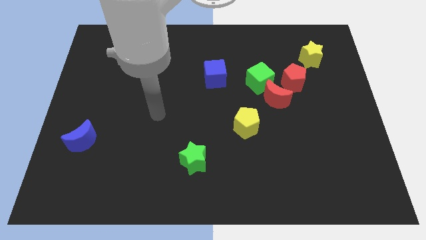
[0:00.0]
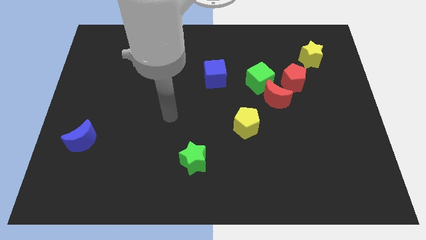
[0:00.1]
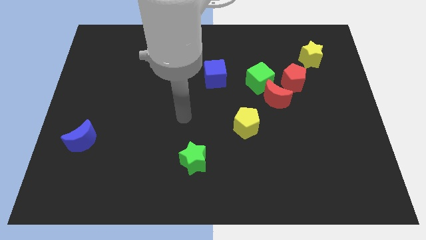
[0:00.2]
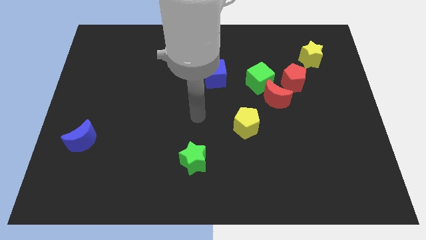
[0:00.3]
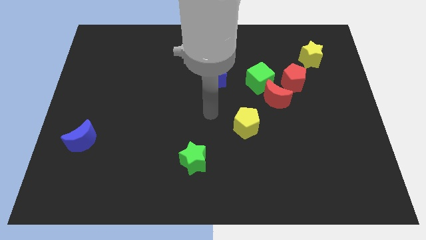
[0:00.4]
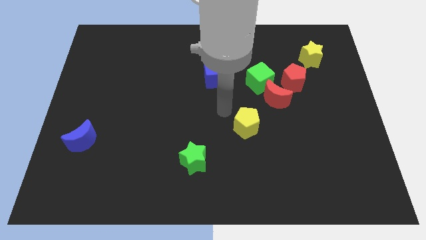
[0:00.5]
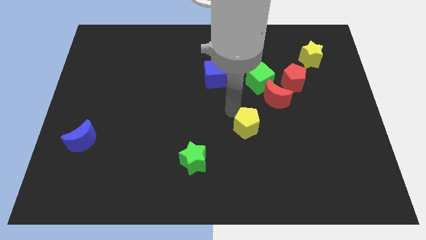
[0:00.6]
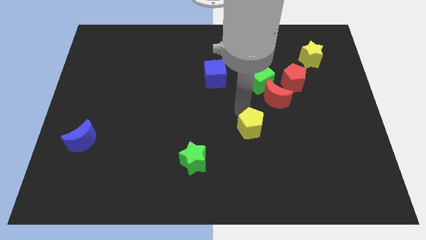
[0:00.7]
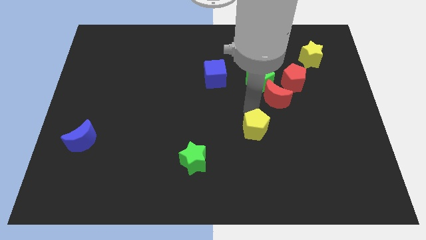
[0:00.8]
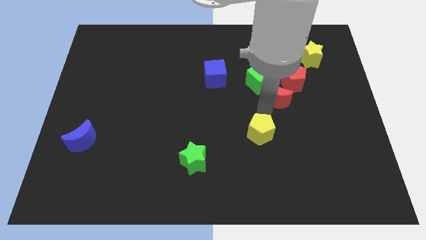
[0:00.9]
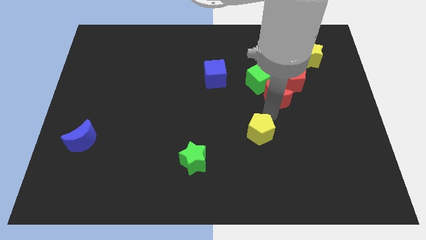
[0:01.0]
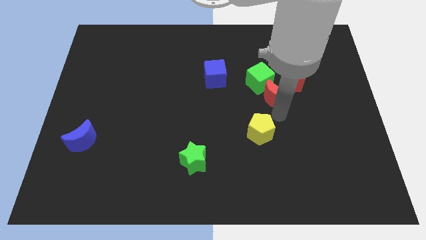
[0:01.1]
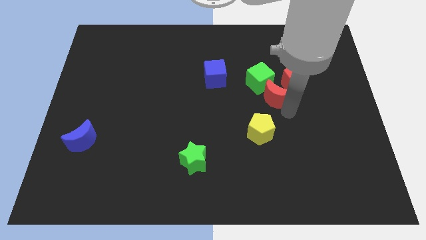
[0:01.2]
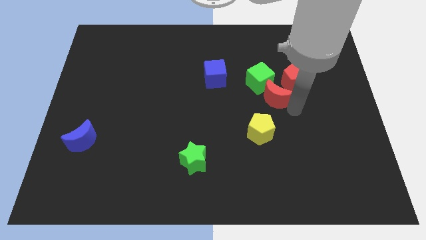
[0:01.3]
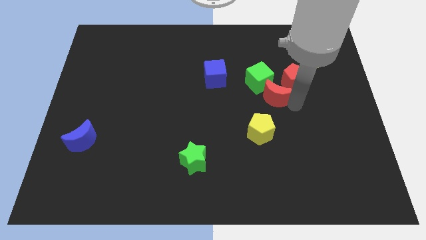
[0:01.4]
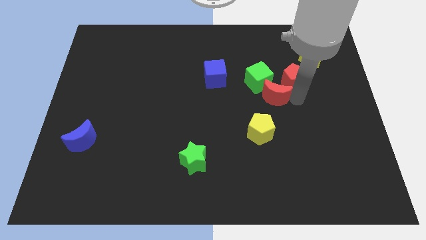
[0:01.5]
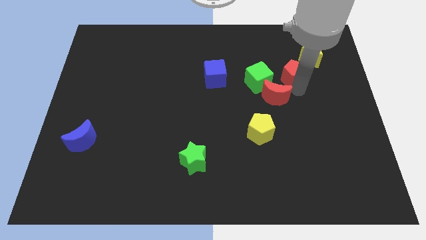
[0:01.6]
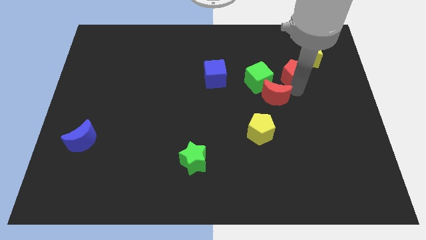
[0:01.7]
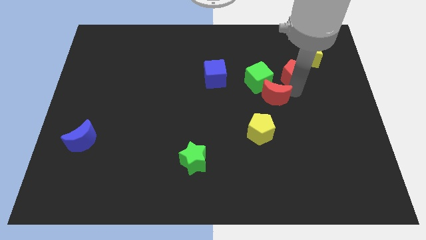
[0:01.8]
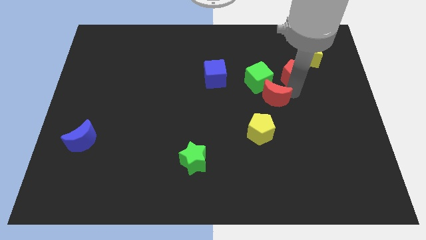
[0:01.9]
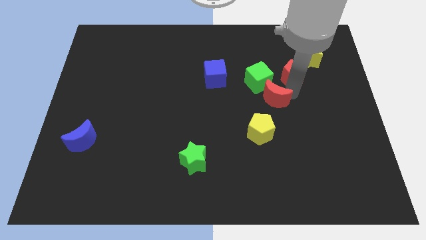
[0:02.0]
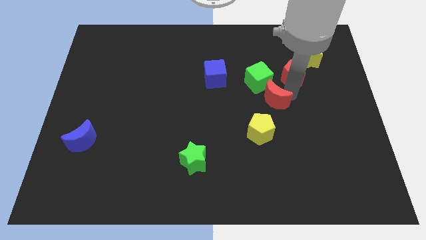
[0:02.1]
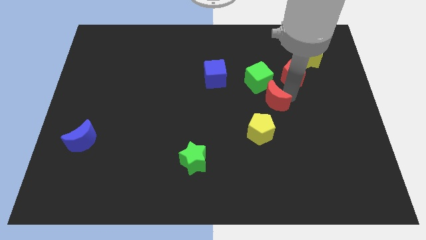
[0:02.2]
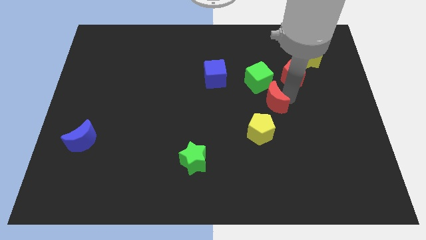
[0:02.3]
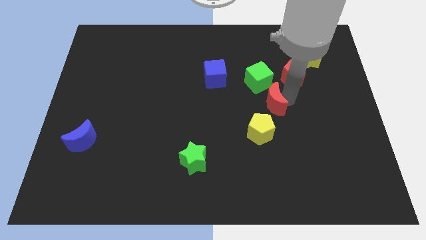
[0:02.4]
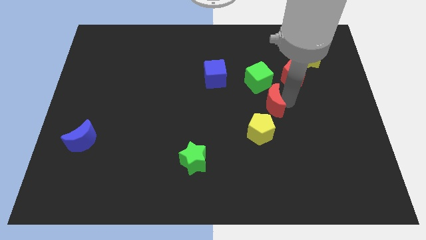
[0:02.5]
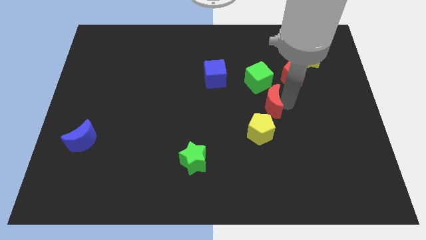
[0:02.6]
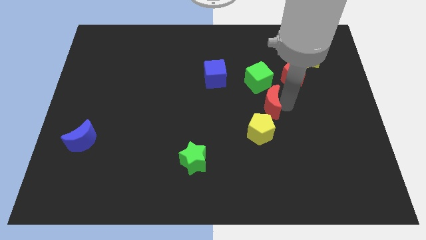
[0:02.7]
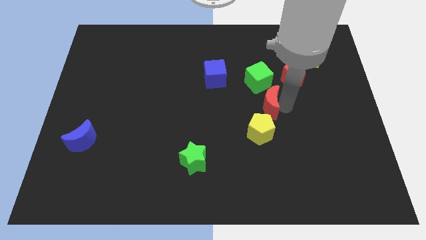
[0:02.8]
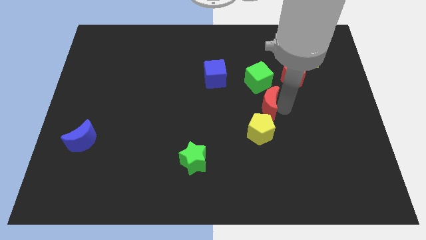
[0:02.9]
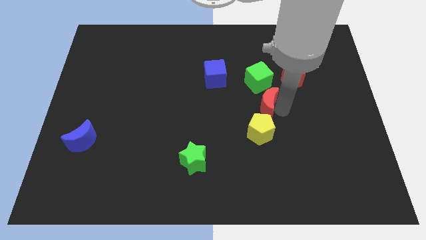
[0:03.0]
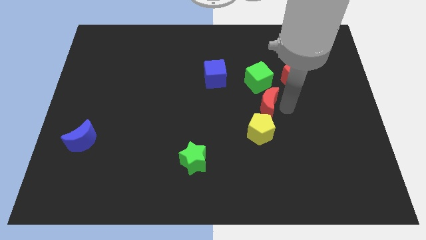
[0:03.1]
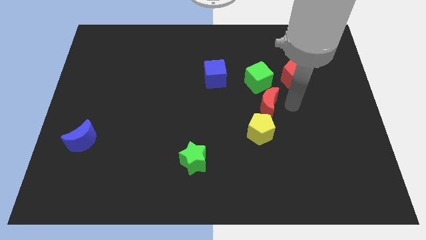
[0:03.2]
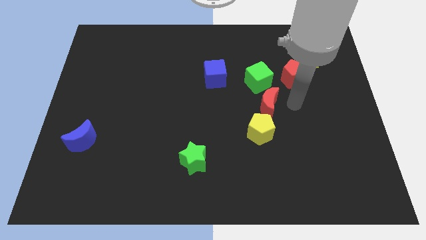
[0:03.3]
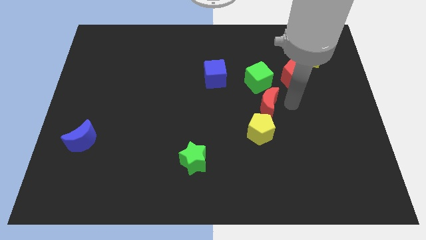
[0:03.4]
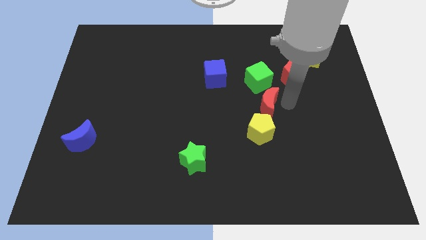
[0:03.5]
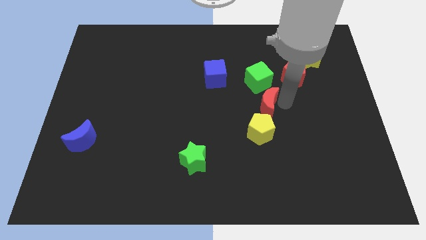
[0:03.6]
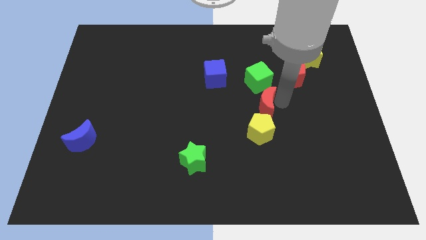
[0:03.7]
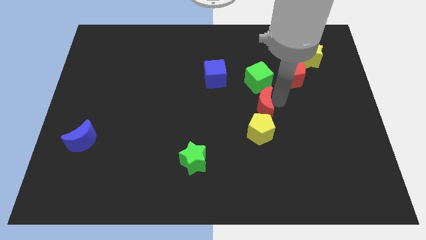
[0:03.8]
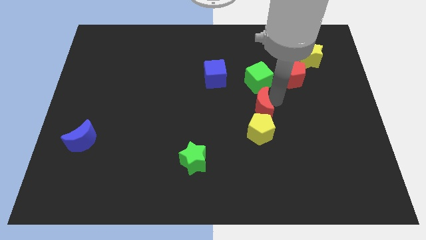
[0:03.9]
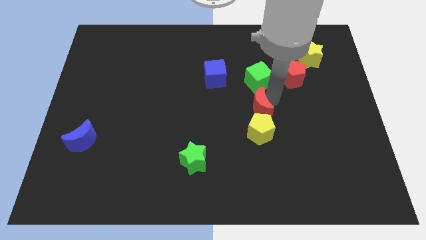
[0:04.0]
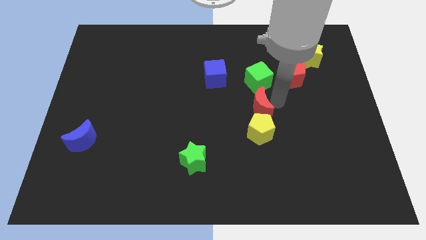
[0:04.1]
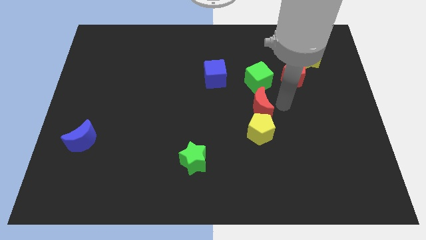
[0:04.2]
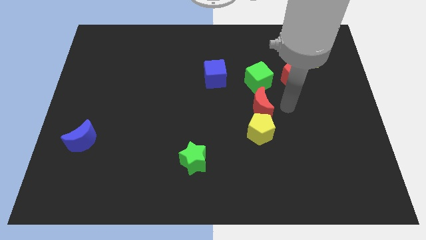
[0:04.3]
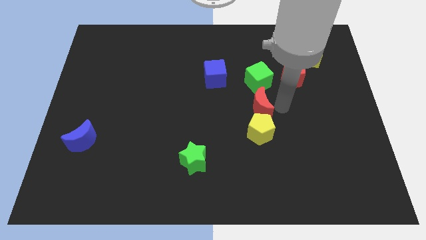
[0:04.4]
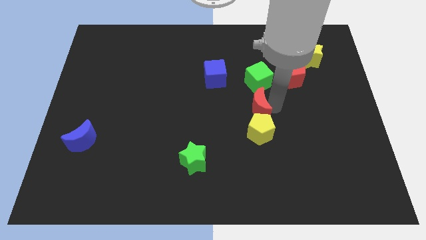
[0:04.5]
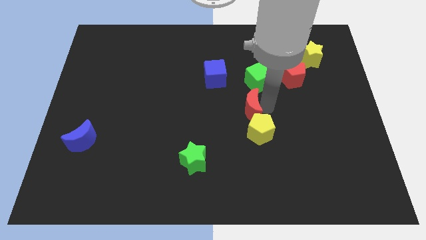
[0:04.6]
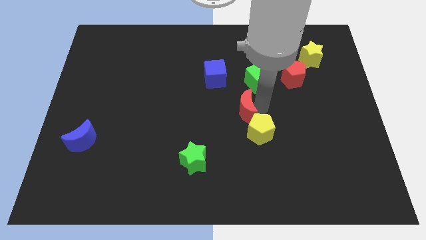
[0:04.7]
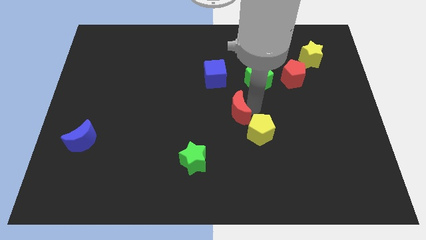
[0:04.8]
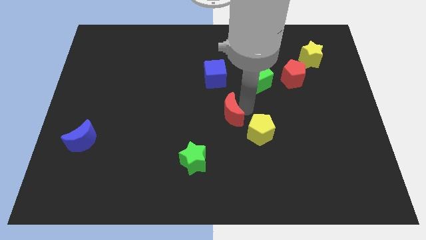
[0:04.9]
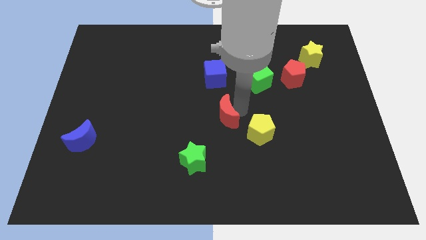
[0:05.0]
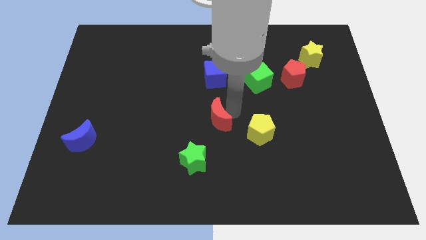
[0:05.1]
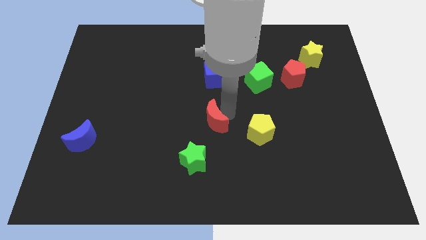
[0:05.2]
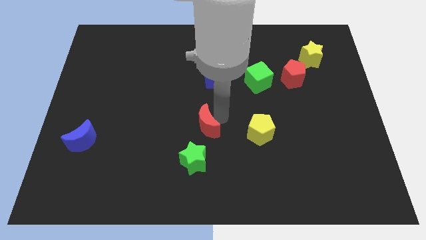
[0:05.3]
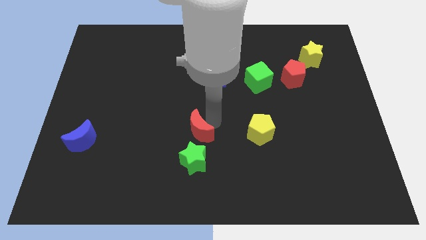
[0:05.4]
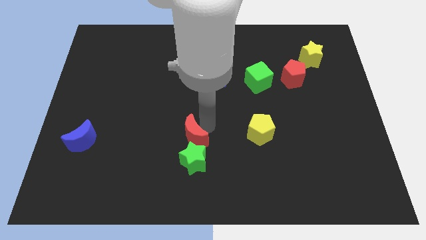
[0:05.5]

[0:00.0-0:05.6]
put the red moon to the top left of the green star

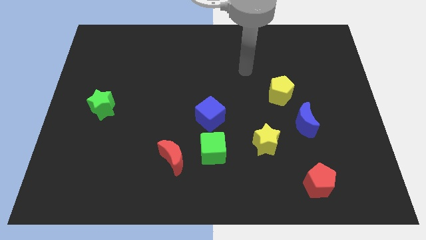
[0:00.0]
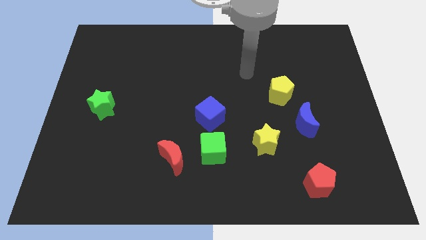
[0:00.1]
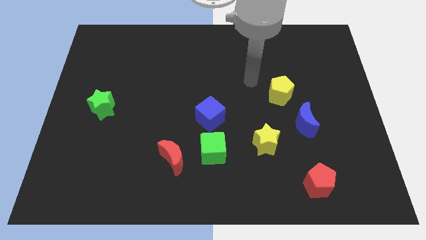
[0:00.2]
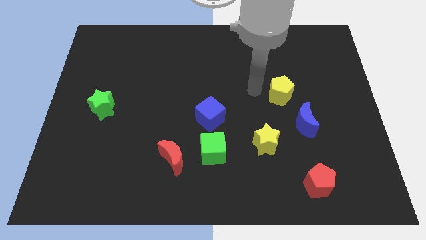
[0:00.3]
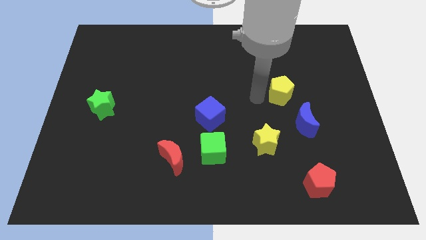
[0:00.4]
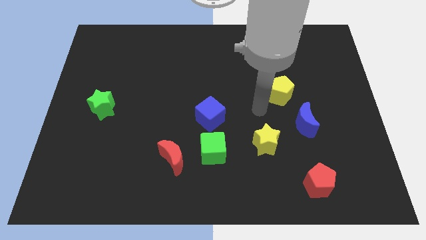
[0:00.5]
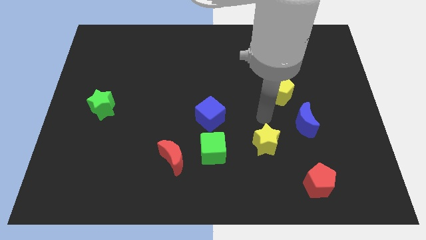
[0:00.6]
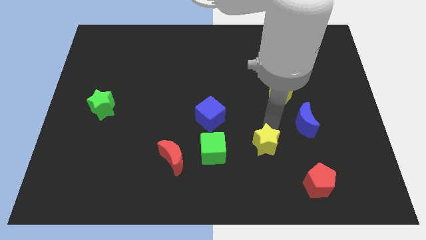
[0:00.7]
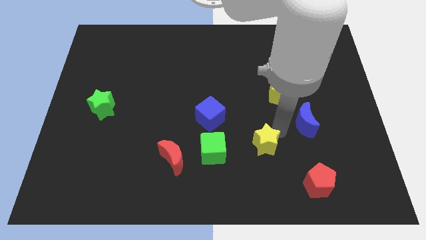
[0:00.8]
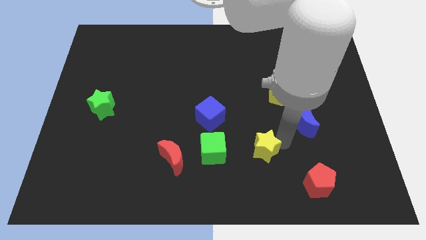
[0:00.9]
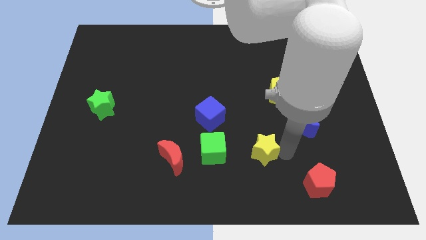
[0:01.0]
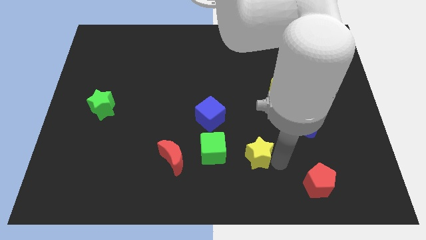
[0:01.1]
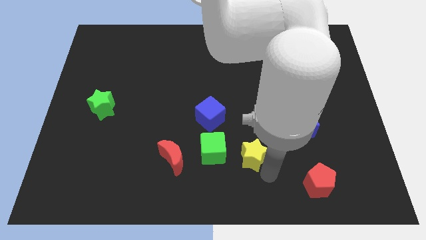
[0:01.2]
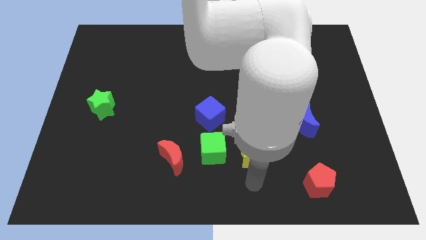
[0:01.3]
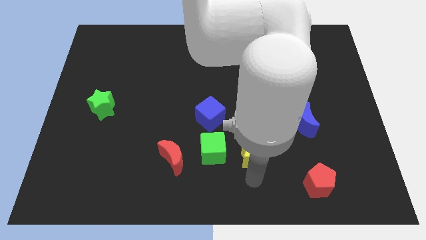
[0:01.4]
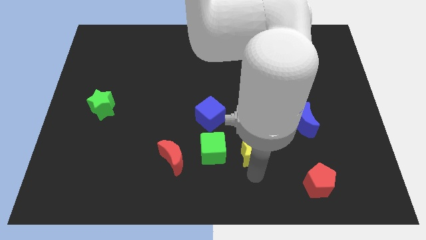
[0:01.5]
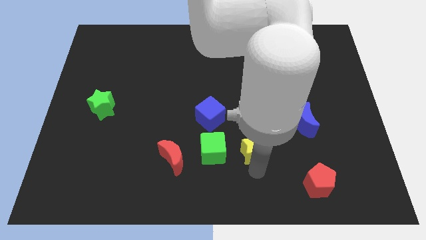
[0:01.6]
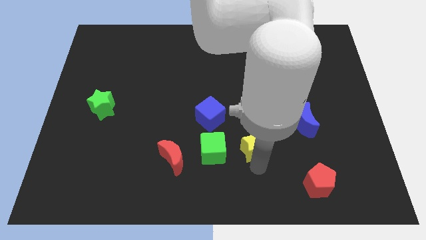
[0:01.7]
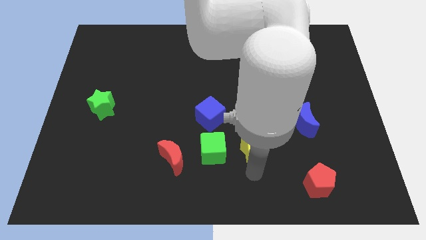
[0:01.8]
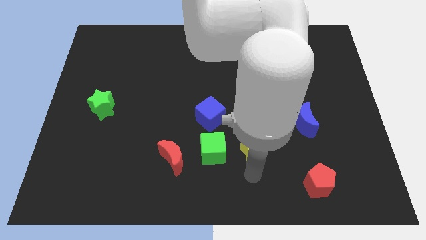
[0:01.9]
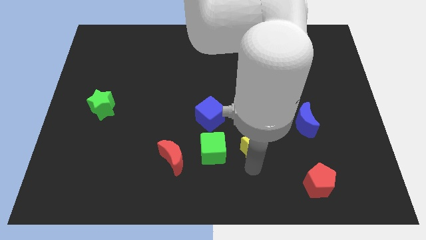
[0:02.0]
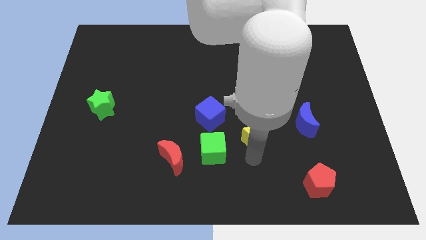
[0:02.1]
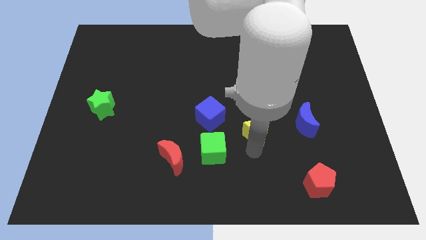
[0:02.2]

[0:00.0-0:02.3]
slide the yellow star to the right of the blue cube
